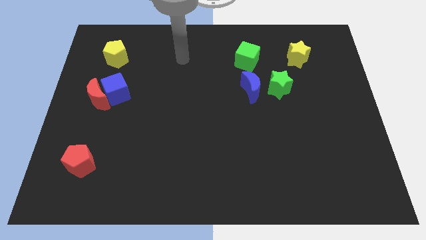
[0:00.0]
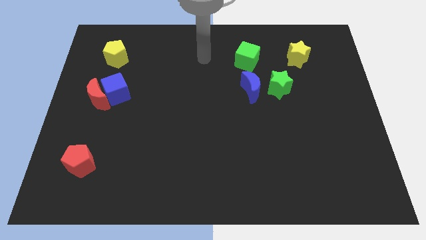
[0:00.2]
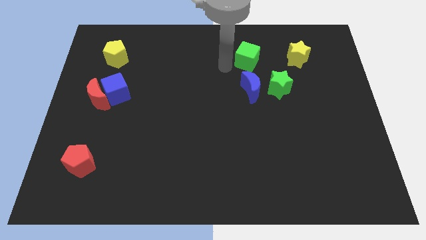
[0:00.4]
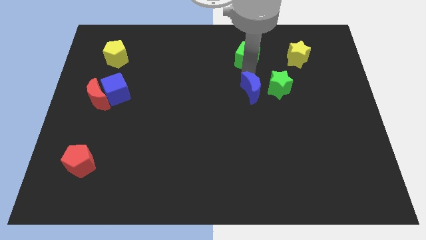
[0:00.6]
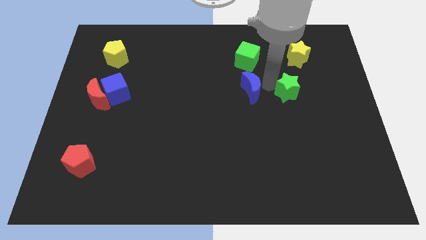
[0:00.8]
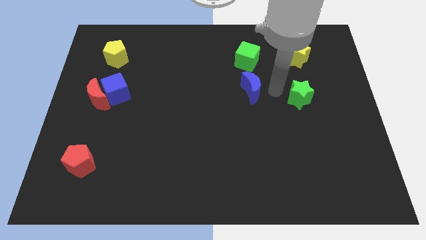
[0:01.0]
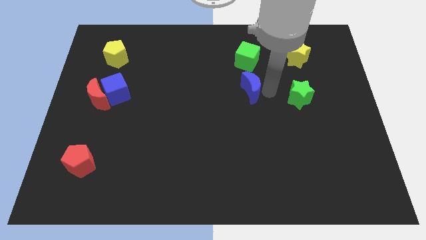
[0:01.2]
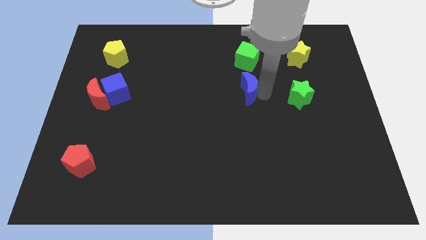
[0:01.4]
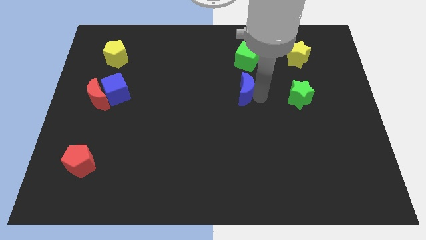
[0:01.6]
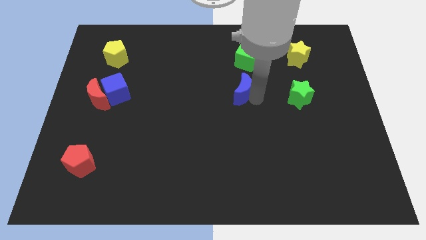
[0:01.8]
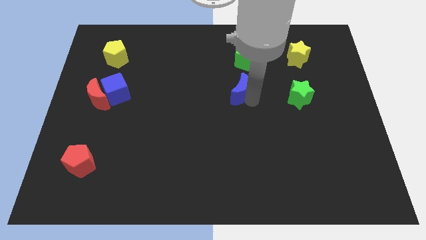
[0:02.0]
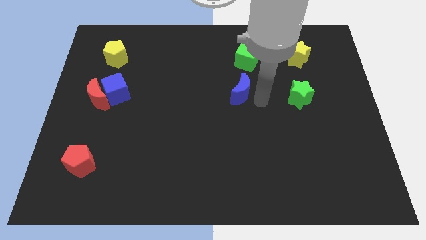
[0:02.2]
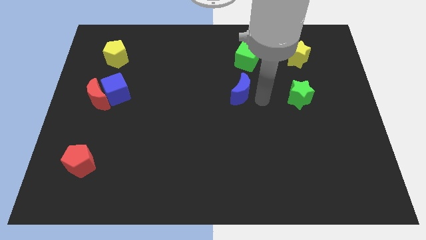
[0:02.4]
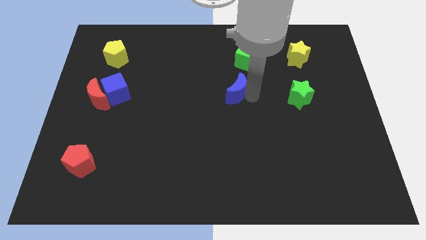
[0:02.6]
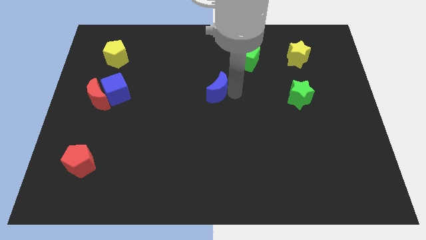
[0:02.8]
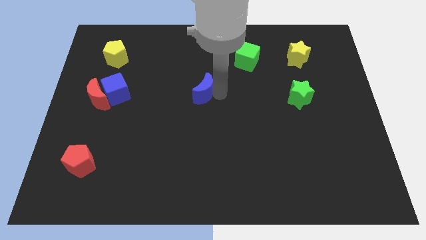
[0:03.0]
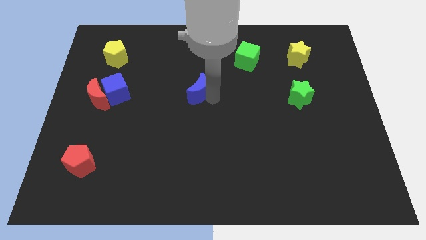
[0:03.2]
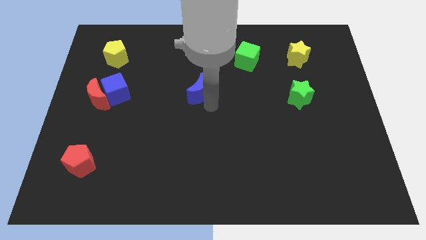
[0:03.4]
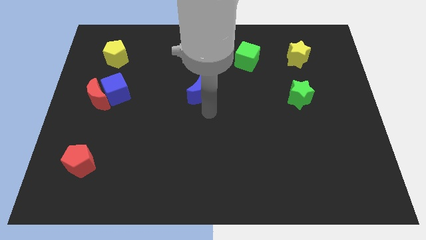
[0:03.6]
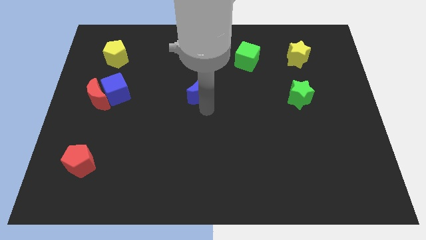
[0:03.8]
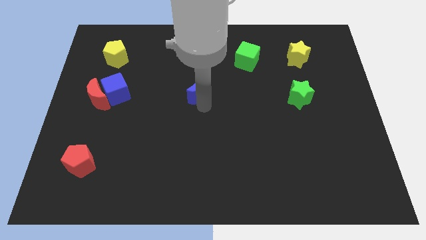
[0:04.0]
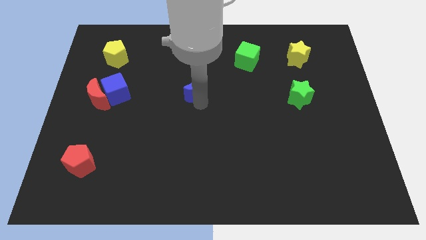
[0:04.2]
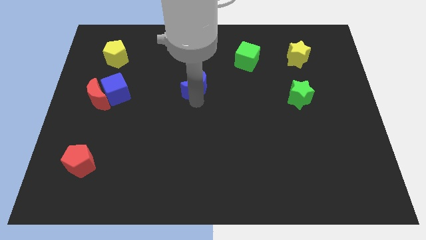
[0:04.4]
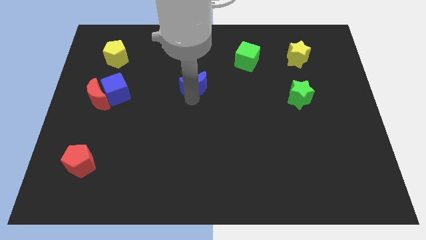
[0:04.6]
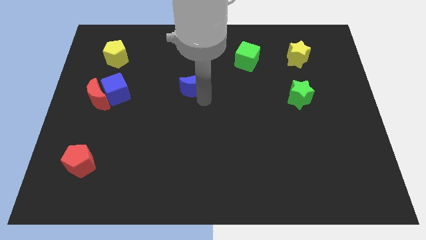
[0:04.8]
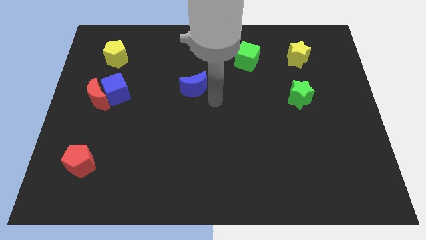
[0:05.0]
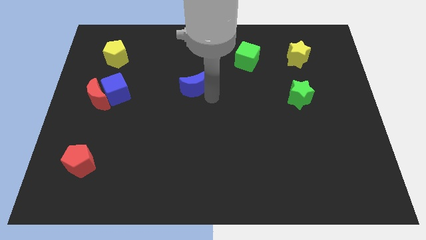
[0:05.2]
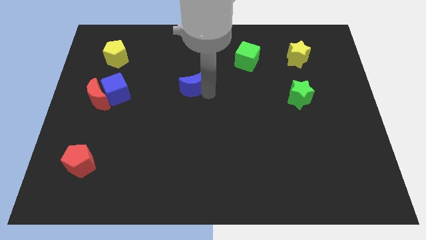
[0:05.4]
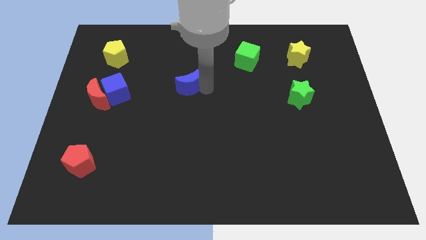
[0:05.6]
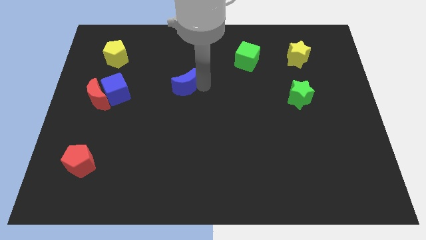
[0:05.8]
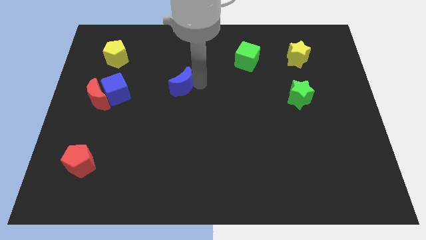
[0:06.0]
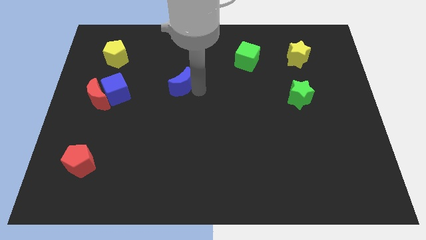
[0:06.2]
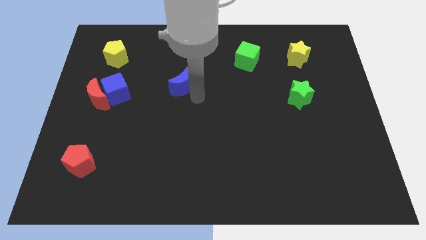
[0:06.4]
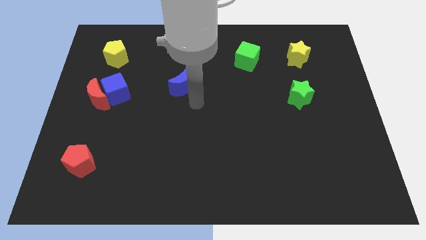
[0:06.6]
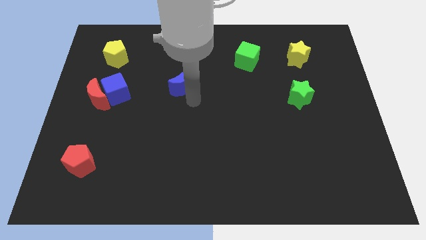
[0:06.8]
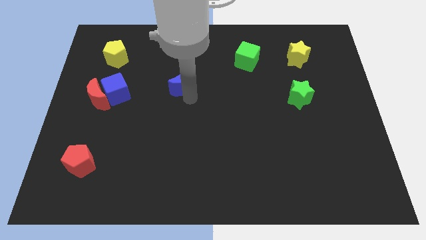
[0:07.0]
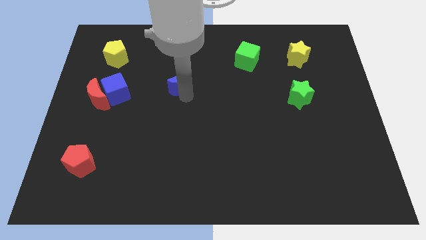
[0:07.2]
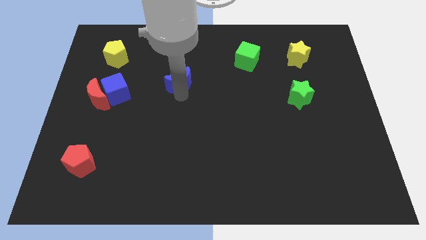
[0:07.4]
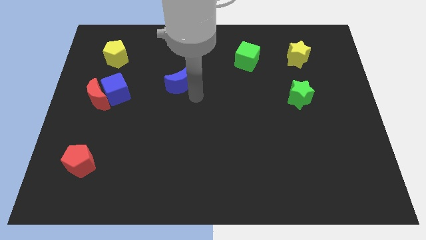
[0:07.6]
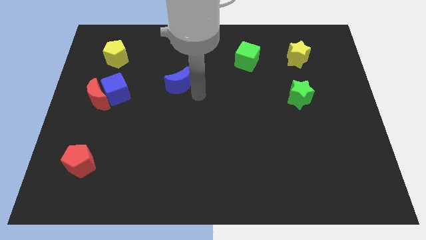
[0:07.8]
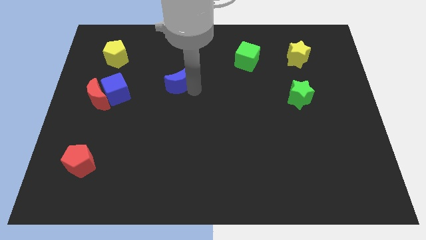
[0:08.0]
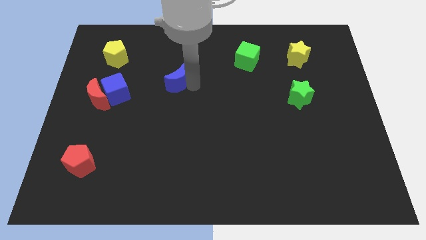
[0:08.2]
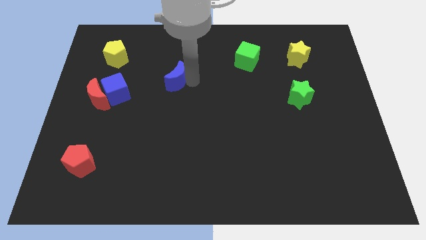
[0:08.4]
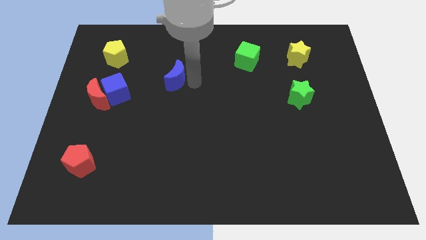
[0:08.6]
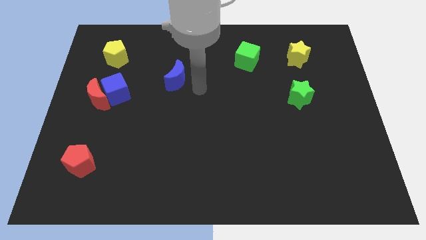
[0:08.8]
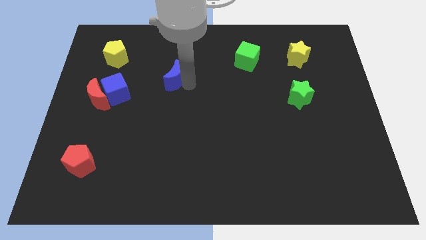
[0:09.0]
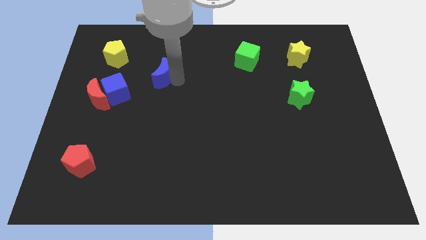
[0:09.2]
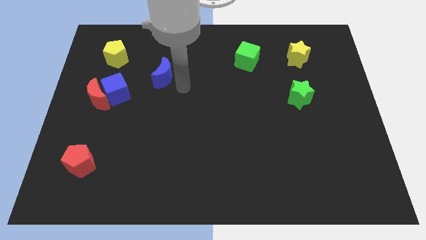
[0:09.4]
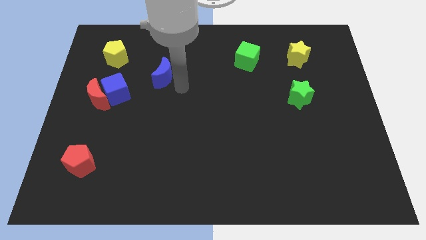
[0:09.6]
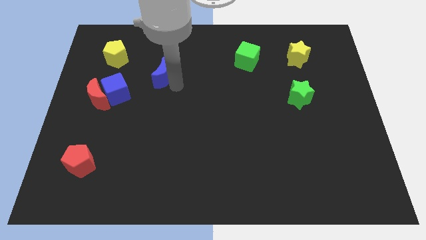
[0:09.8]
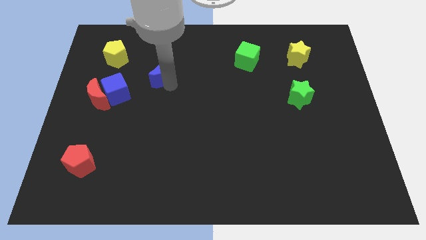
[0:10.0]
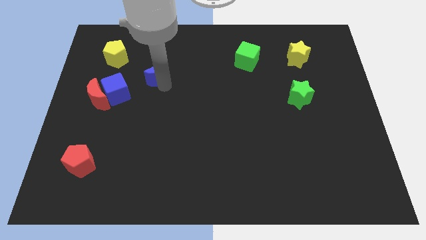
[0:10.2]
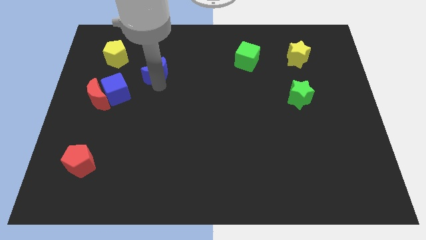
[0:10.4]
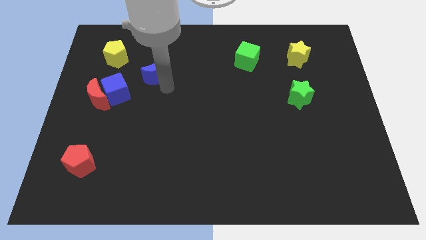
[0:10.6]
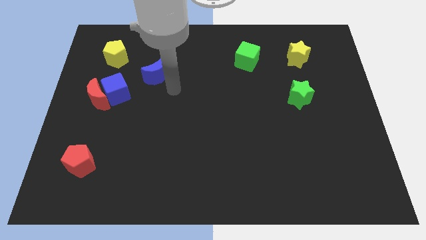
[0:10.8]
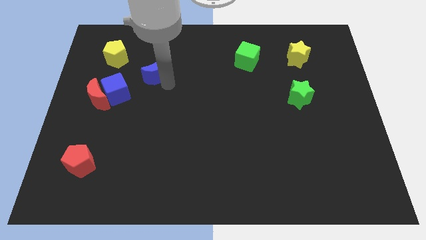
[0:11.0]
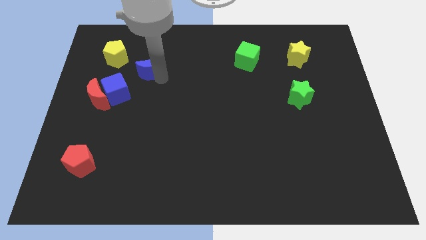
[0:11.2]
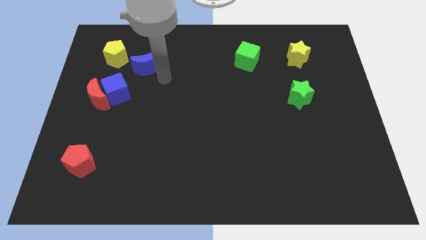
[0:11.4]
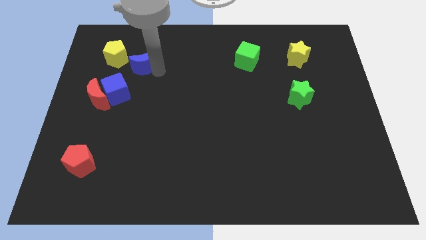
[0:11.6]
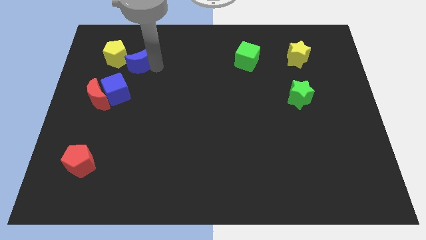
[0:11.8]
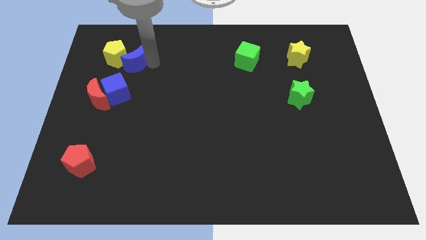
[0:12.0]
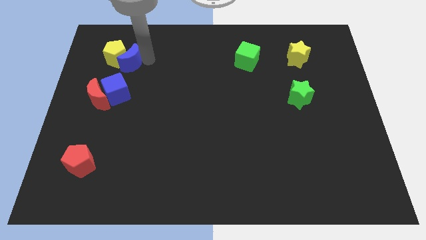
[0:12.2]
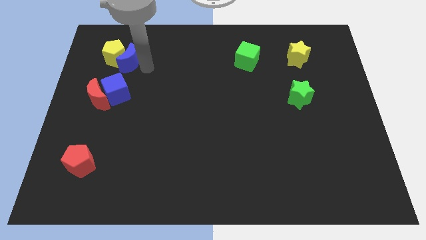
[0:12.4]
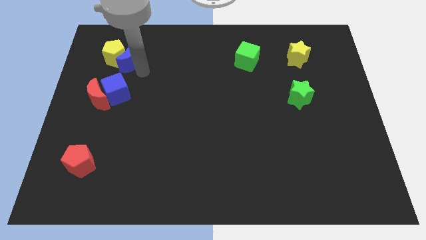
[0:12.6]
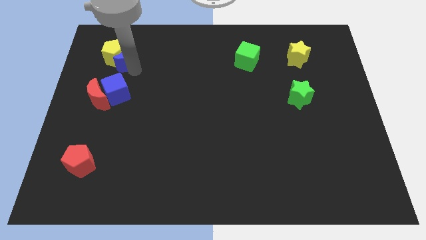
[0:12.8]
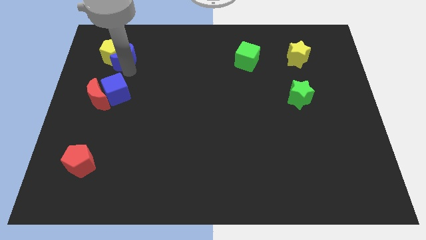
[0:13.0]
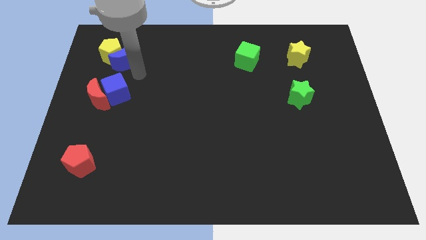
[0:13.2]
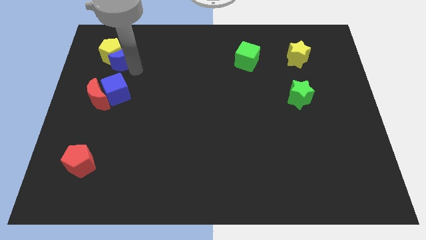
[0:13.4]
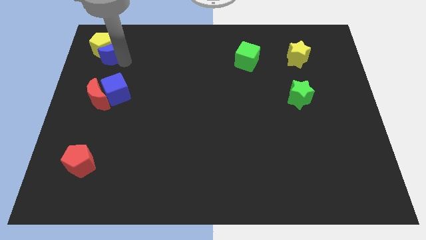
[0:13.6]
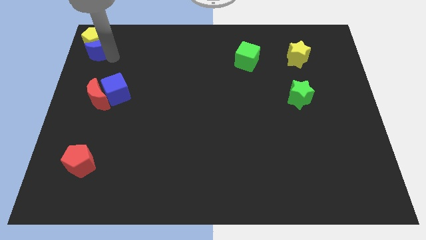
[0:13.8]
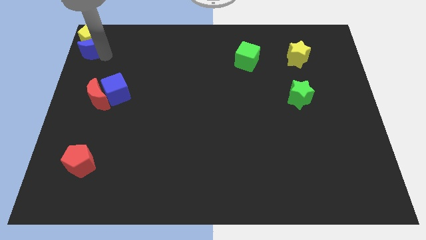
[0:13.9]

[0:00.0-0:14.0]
put the blue moon to the upper left corner

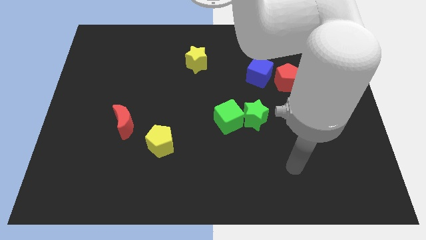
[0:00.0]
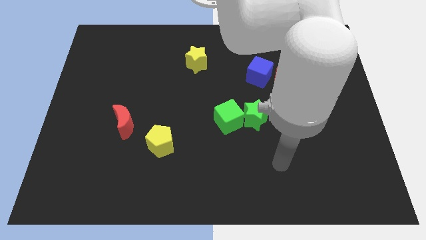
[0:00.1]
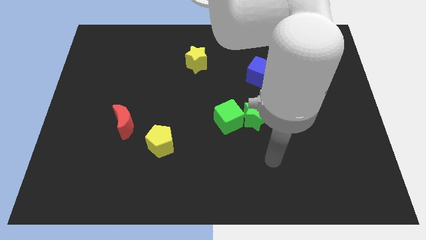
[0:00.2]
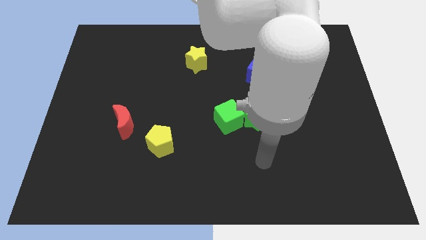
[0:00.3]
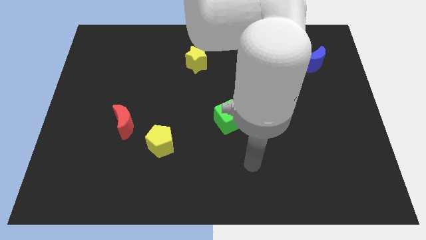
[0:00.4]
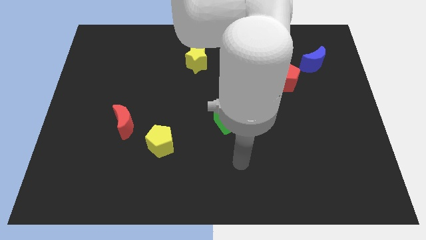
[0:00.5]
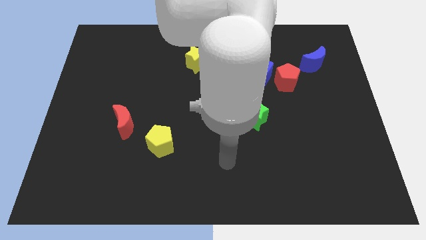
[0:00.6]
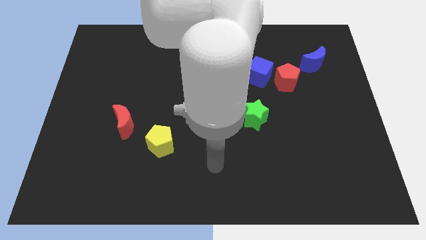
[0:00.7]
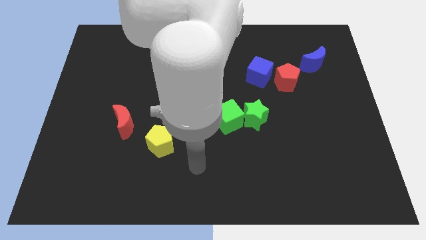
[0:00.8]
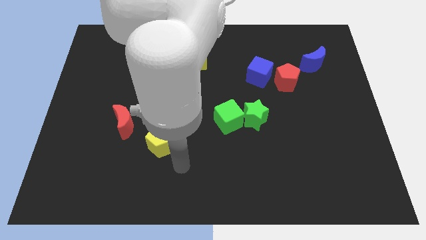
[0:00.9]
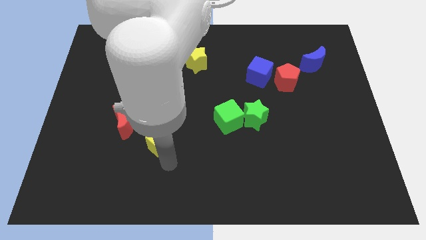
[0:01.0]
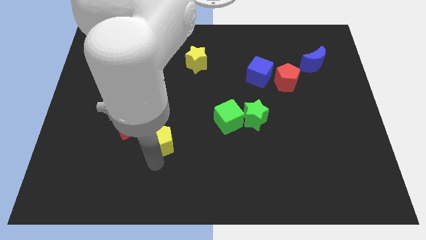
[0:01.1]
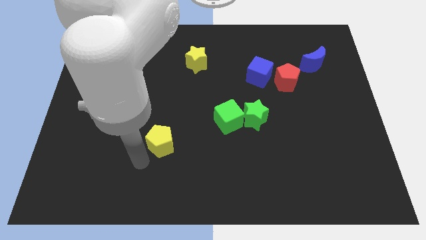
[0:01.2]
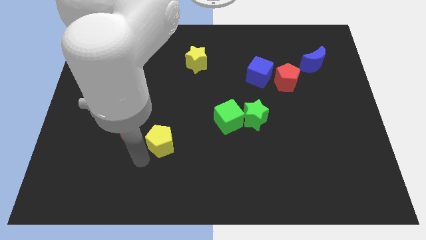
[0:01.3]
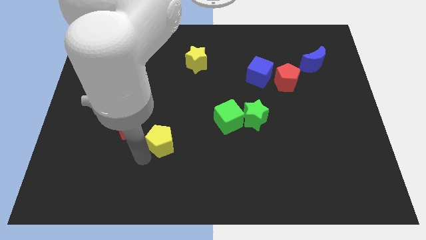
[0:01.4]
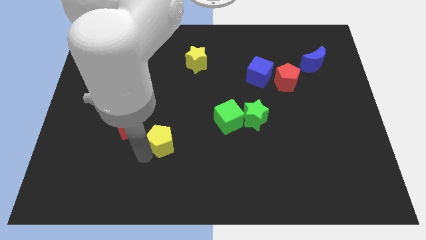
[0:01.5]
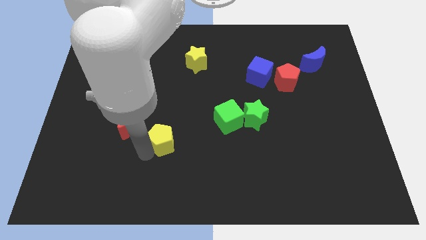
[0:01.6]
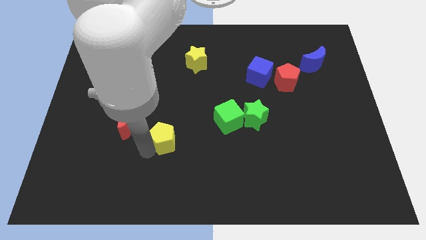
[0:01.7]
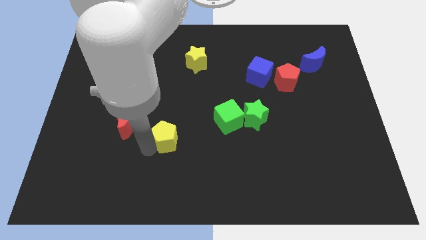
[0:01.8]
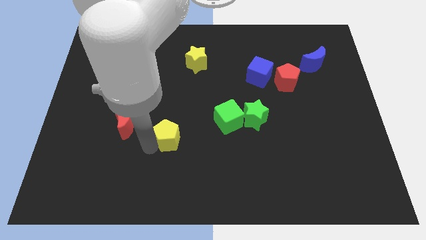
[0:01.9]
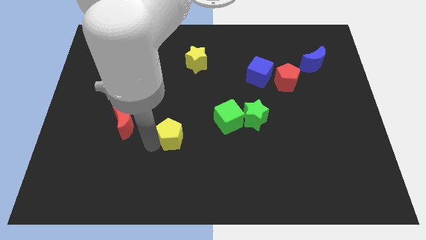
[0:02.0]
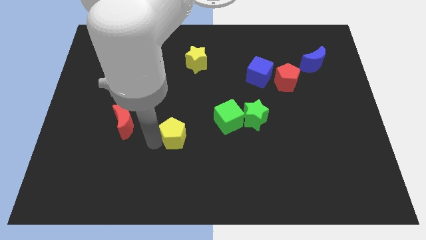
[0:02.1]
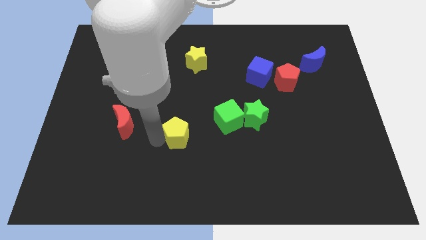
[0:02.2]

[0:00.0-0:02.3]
put the yellow pentagon to the middle of the board
